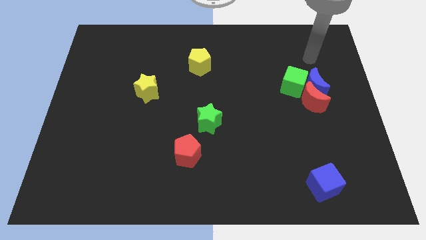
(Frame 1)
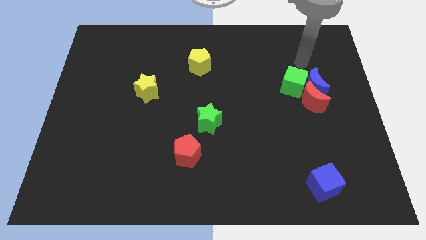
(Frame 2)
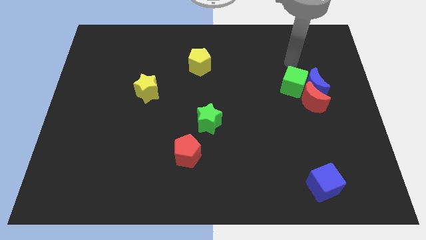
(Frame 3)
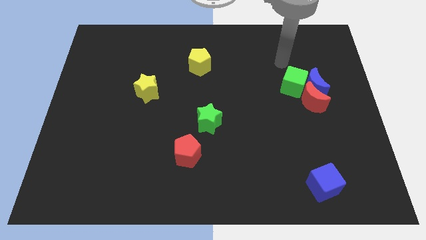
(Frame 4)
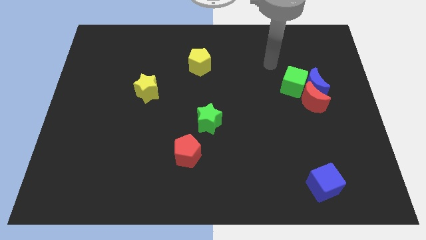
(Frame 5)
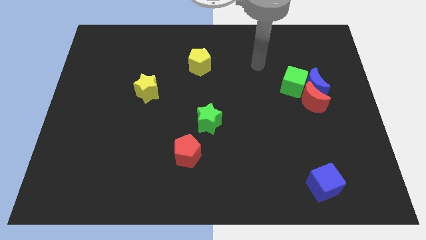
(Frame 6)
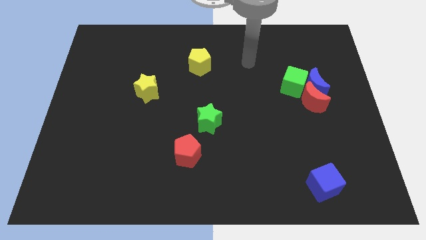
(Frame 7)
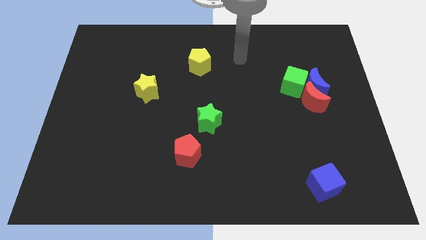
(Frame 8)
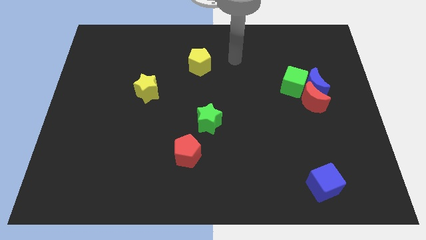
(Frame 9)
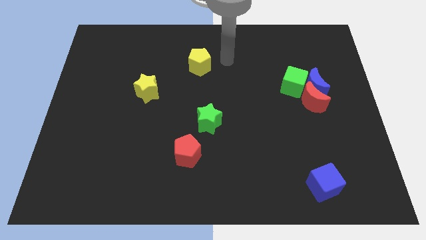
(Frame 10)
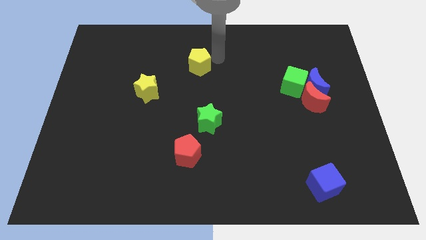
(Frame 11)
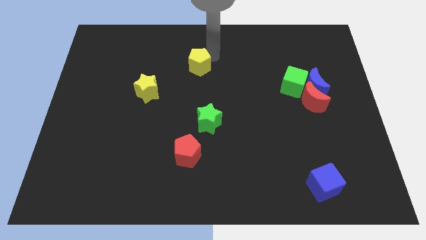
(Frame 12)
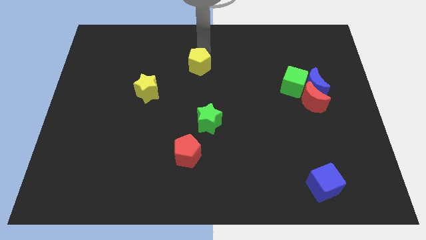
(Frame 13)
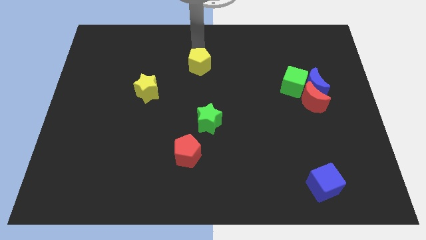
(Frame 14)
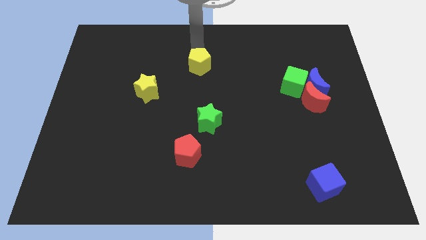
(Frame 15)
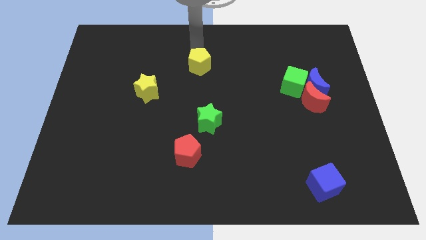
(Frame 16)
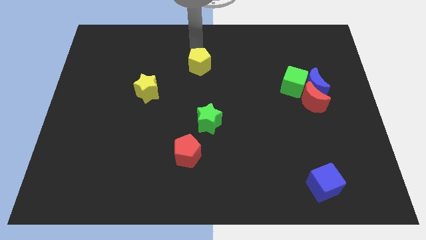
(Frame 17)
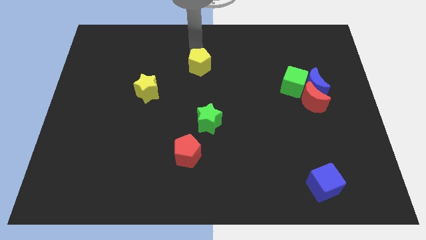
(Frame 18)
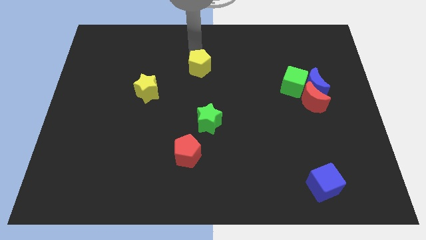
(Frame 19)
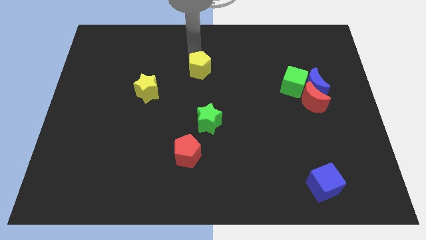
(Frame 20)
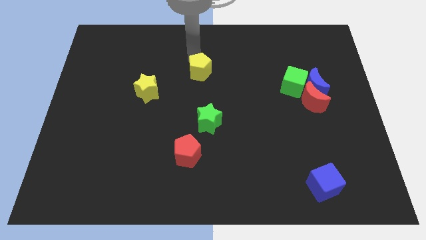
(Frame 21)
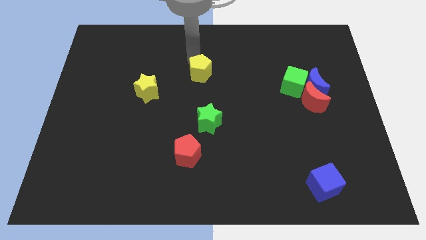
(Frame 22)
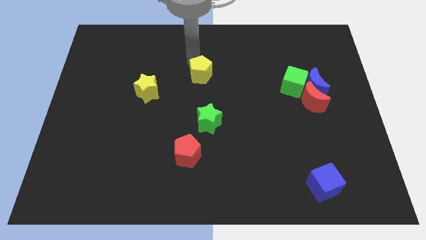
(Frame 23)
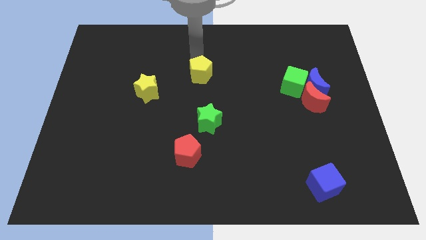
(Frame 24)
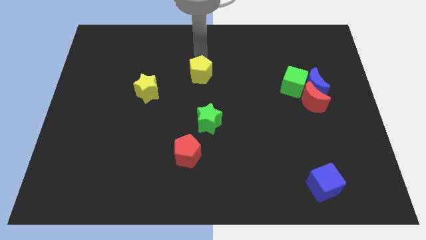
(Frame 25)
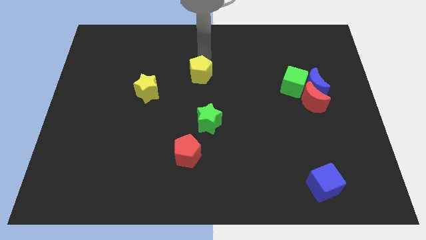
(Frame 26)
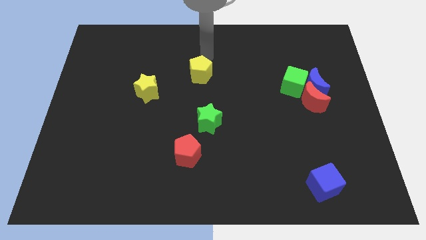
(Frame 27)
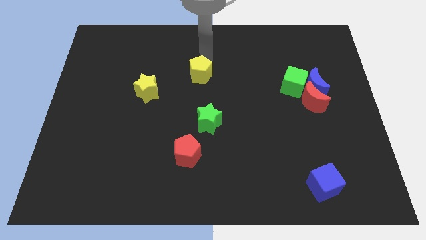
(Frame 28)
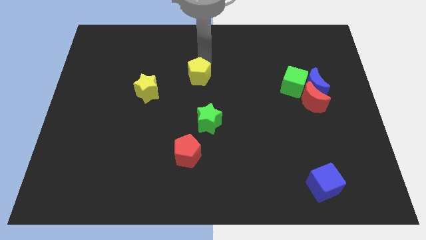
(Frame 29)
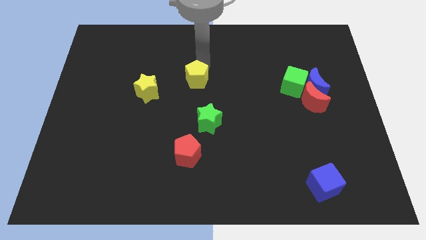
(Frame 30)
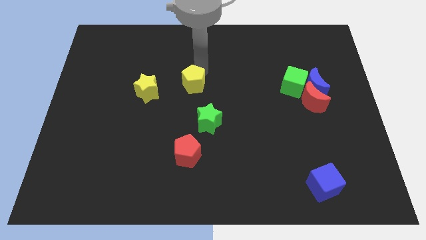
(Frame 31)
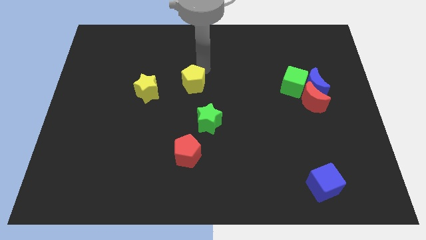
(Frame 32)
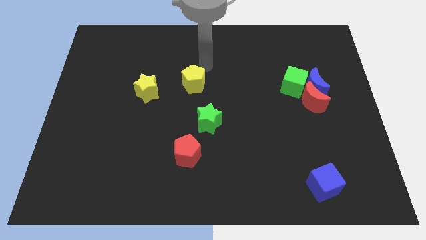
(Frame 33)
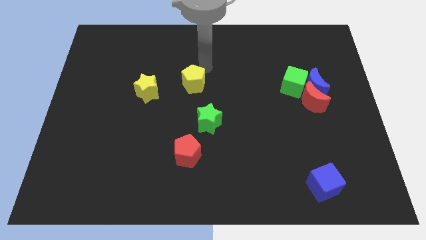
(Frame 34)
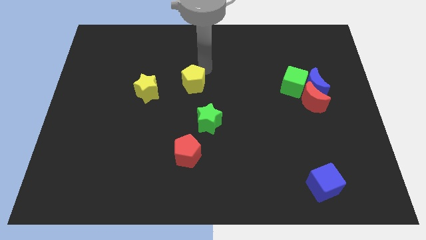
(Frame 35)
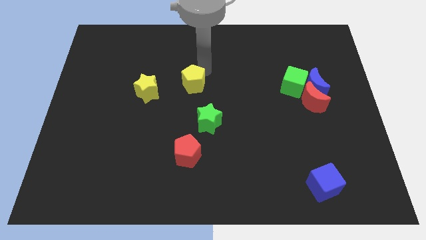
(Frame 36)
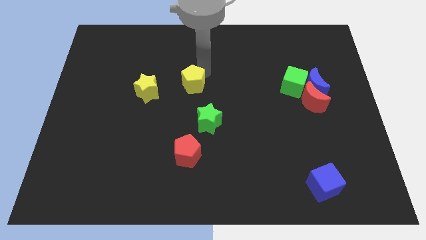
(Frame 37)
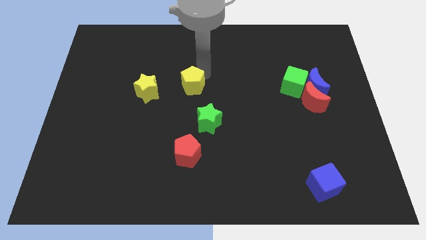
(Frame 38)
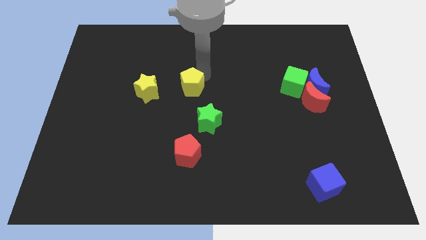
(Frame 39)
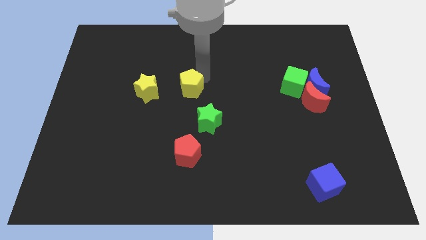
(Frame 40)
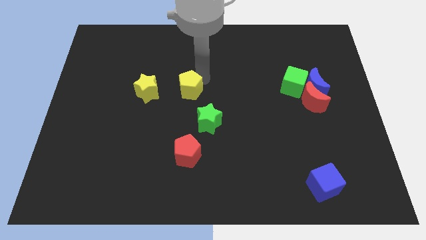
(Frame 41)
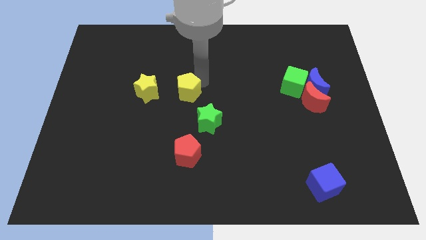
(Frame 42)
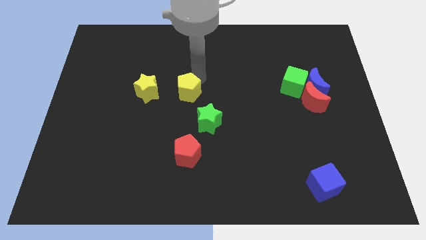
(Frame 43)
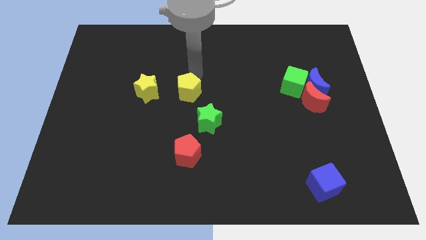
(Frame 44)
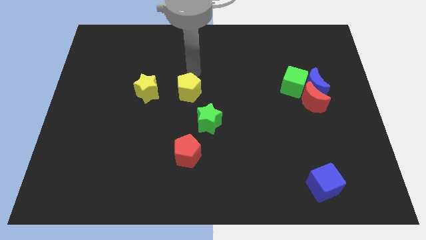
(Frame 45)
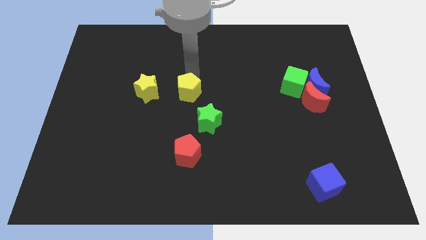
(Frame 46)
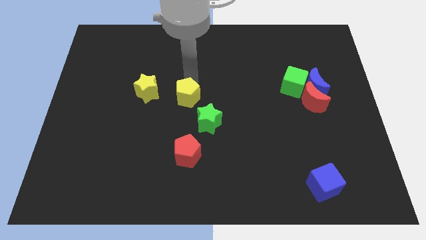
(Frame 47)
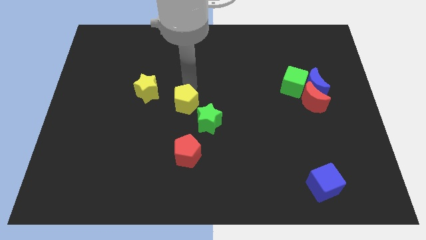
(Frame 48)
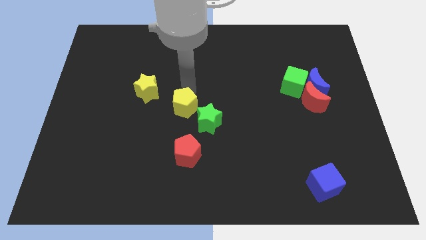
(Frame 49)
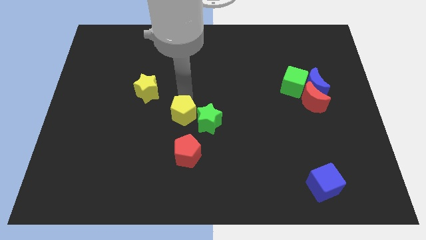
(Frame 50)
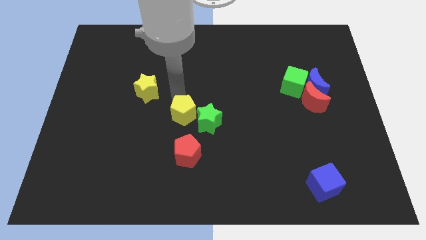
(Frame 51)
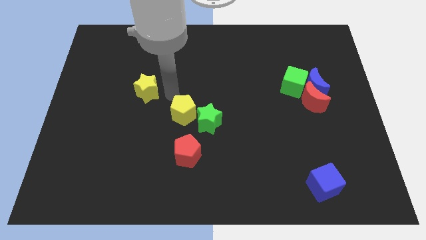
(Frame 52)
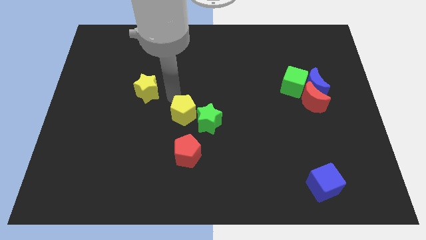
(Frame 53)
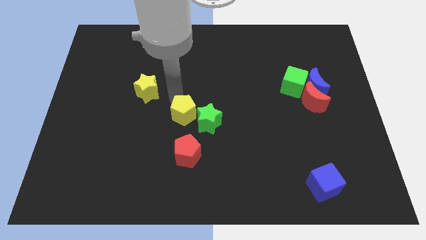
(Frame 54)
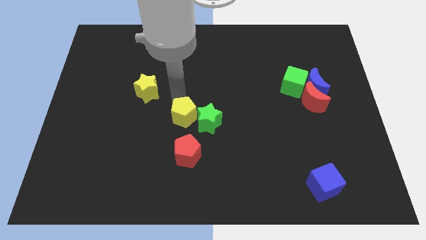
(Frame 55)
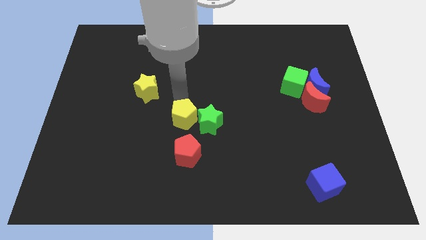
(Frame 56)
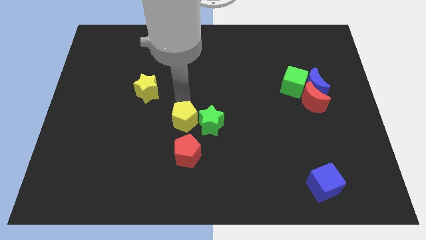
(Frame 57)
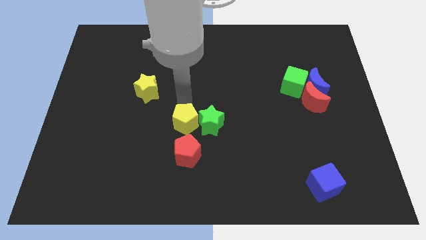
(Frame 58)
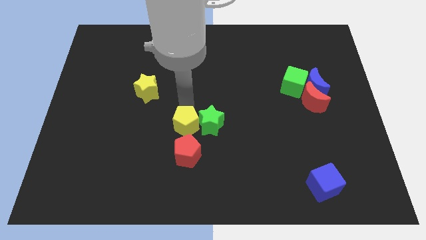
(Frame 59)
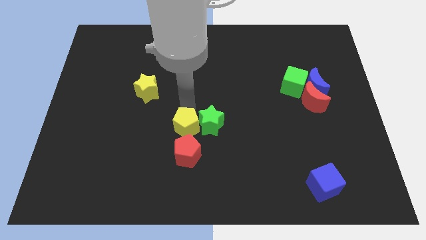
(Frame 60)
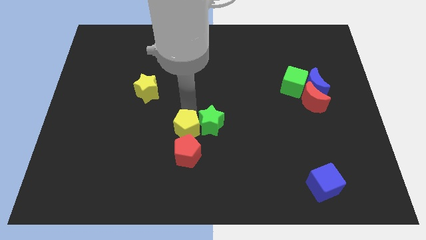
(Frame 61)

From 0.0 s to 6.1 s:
slide the yellow pentagon down

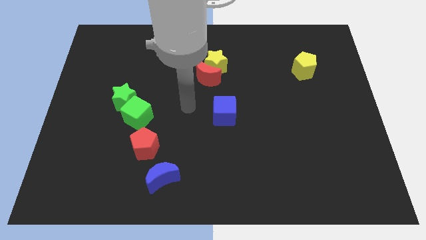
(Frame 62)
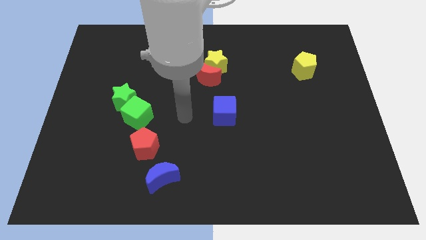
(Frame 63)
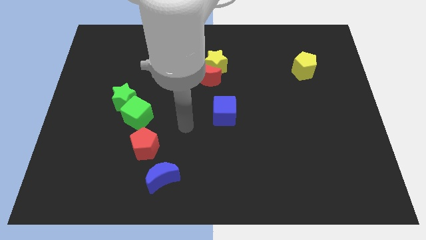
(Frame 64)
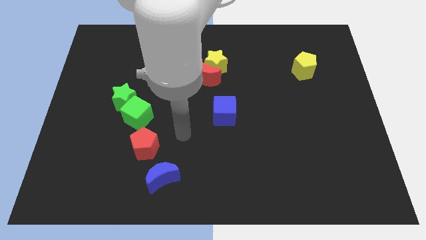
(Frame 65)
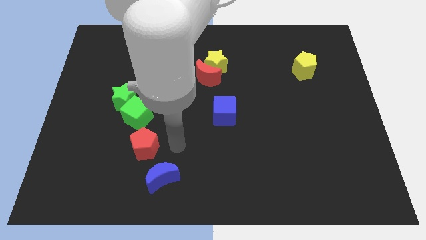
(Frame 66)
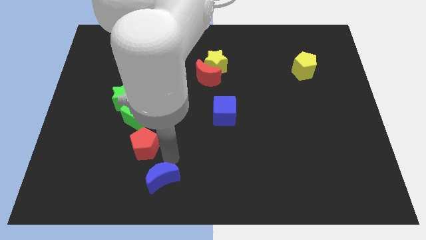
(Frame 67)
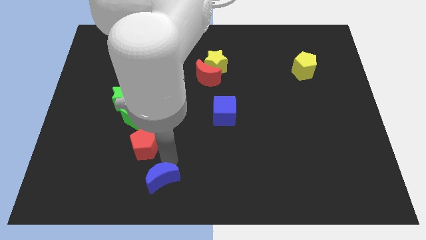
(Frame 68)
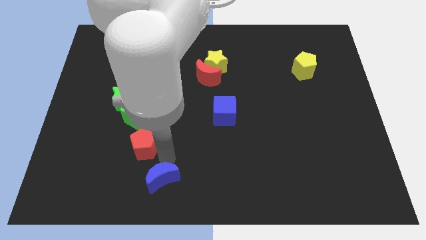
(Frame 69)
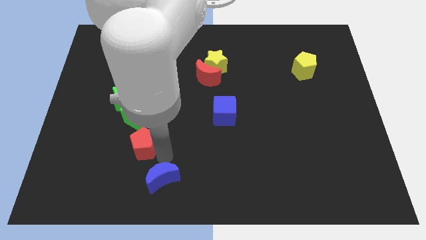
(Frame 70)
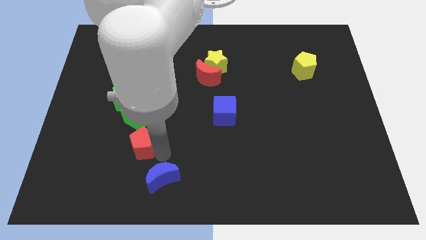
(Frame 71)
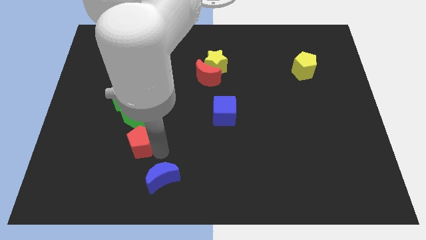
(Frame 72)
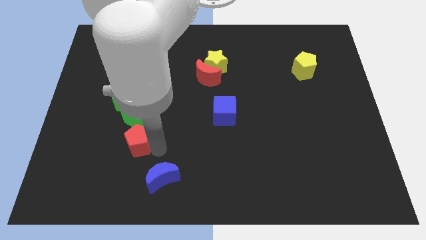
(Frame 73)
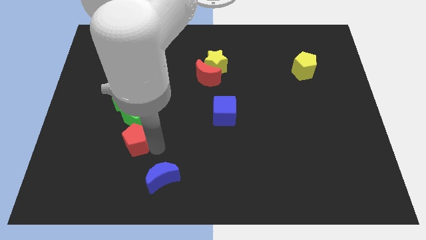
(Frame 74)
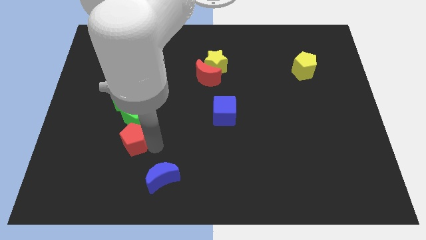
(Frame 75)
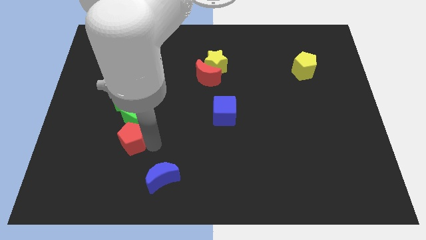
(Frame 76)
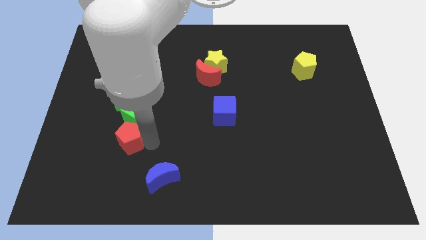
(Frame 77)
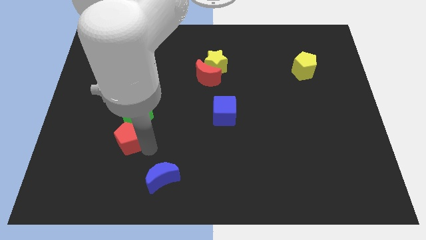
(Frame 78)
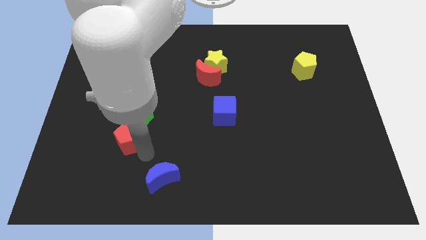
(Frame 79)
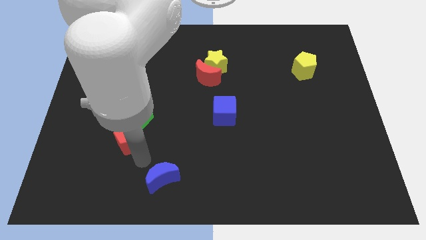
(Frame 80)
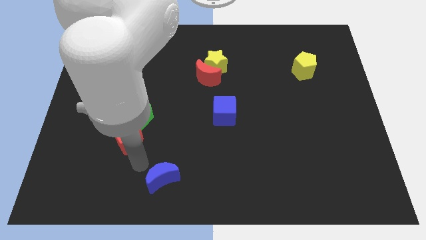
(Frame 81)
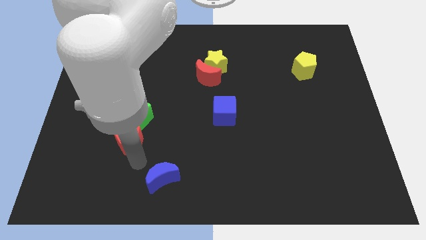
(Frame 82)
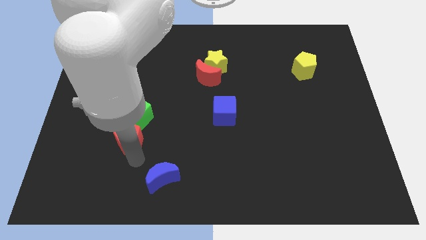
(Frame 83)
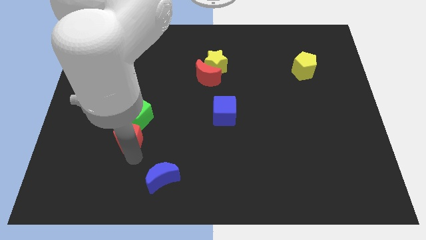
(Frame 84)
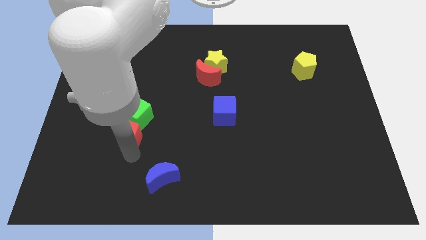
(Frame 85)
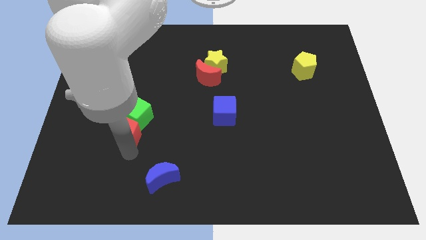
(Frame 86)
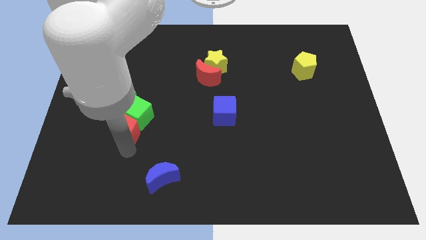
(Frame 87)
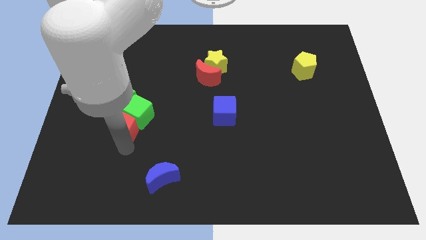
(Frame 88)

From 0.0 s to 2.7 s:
push the red pentagon up and to the left a little
